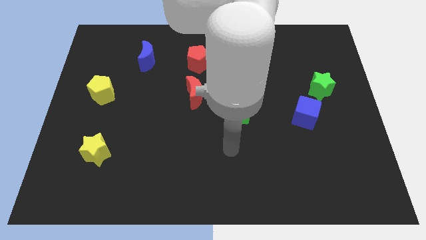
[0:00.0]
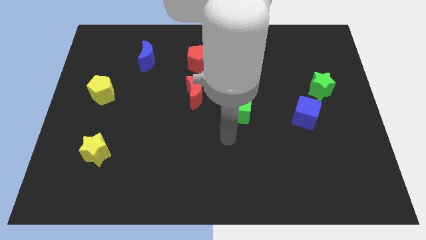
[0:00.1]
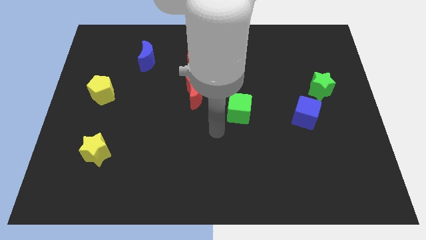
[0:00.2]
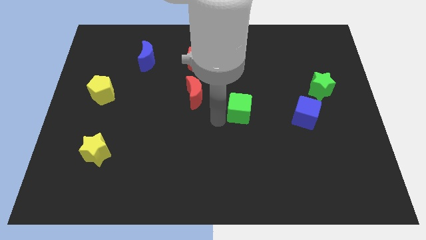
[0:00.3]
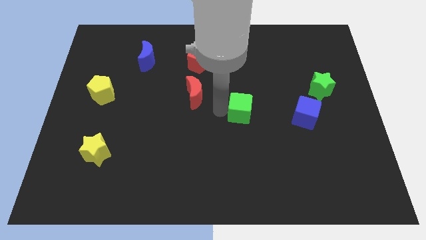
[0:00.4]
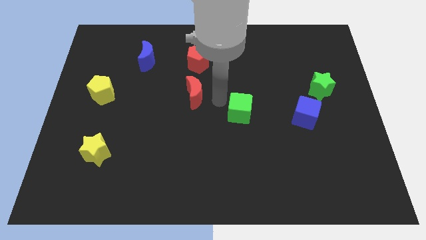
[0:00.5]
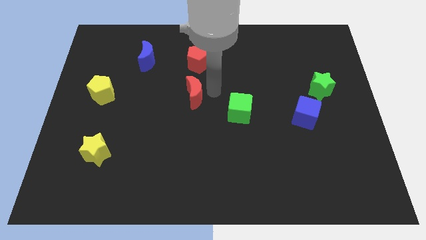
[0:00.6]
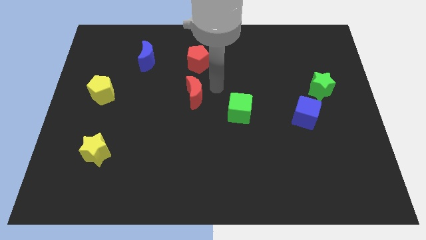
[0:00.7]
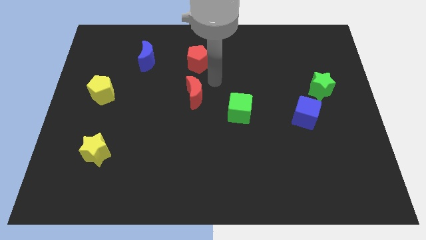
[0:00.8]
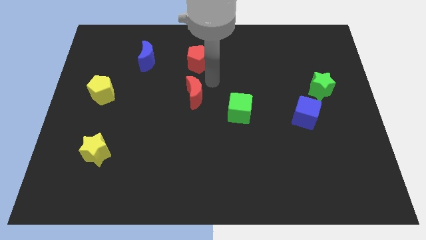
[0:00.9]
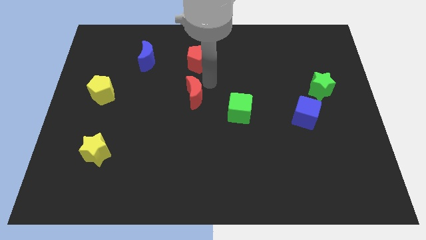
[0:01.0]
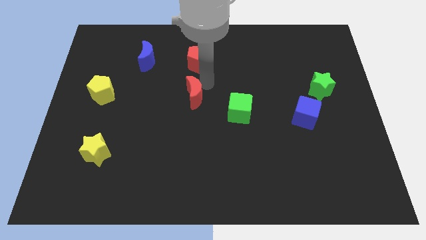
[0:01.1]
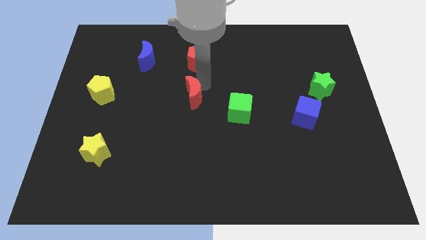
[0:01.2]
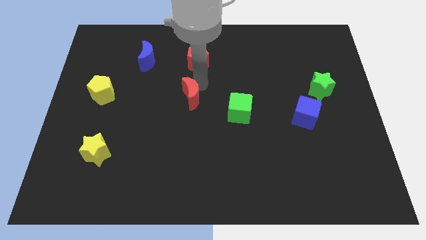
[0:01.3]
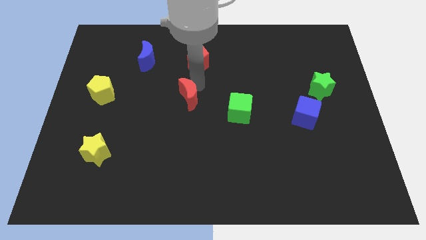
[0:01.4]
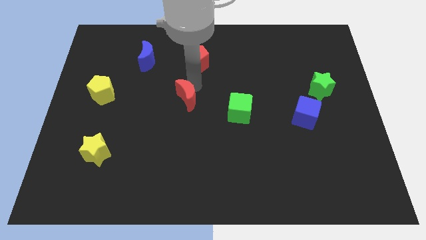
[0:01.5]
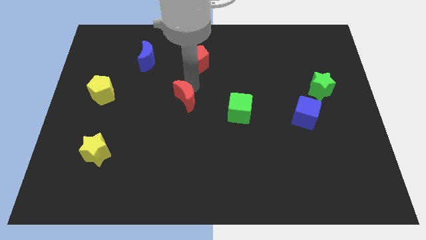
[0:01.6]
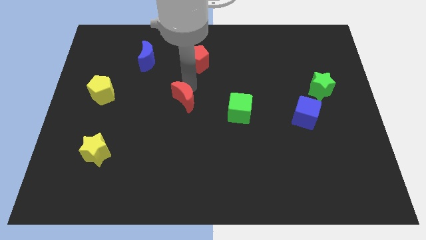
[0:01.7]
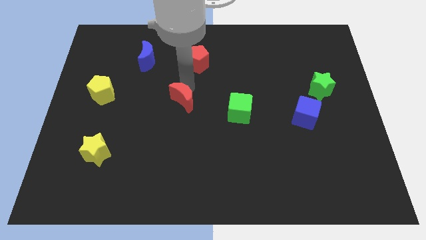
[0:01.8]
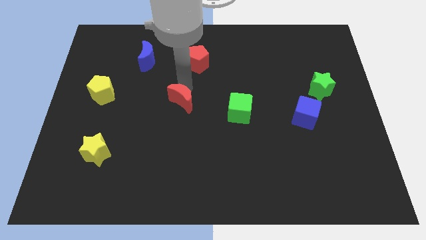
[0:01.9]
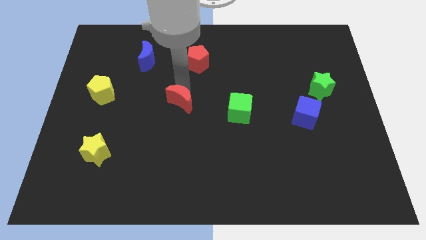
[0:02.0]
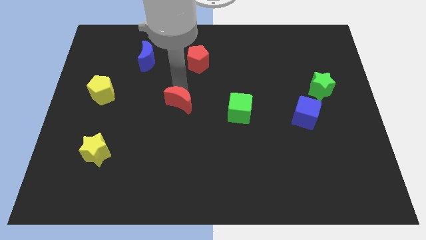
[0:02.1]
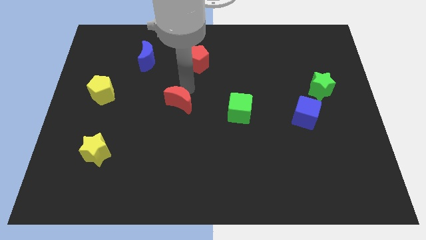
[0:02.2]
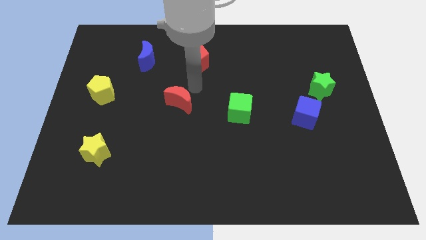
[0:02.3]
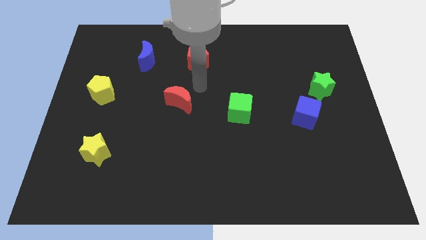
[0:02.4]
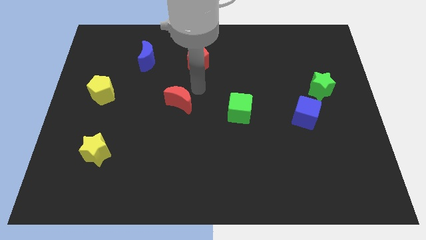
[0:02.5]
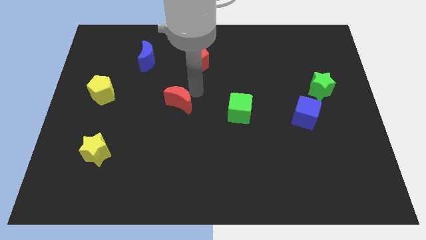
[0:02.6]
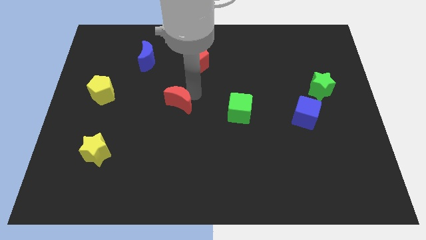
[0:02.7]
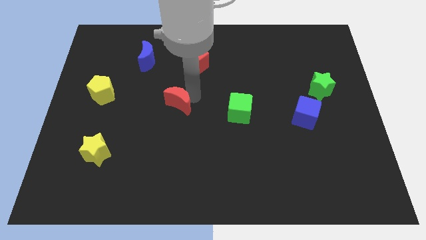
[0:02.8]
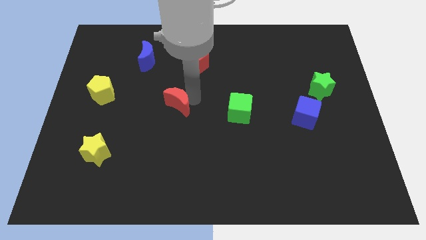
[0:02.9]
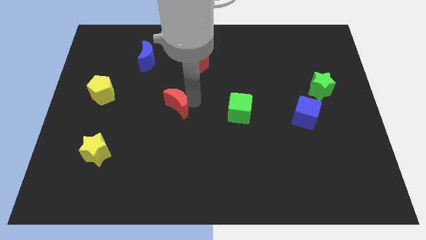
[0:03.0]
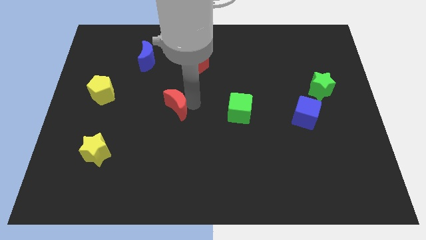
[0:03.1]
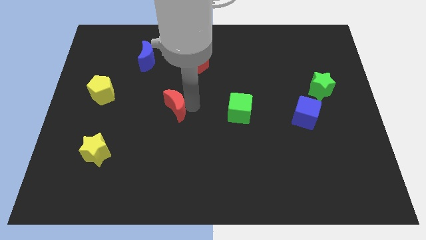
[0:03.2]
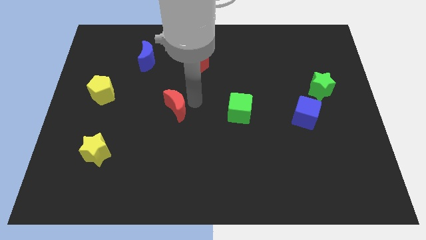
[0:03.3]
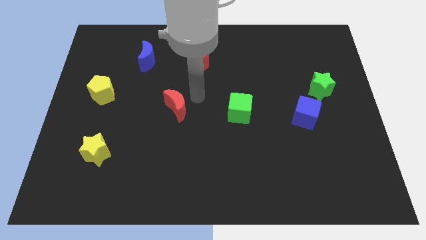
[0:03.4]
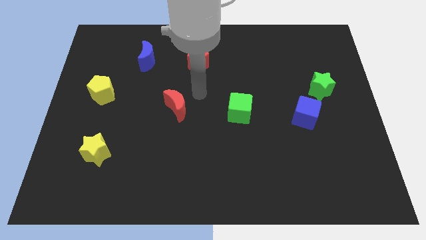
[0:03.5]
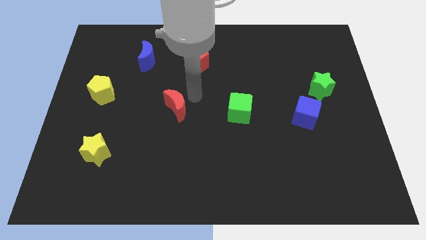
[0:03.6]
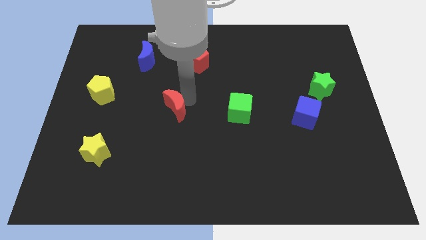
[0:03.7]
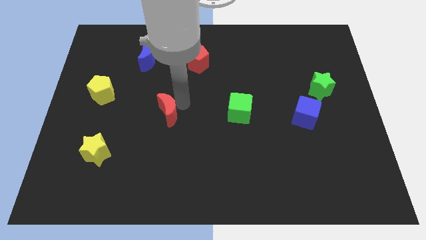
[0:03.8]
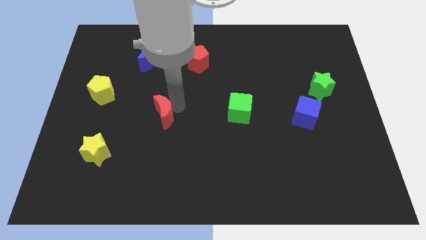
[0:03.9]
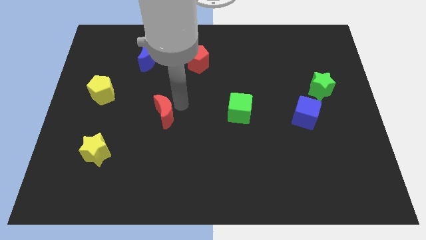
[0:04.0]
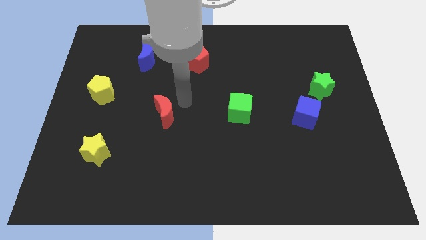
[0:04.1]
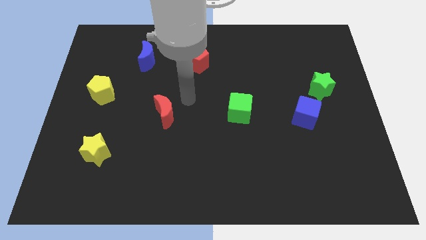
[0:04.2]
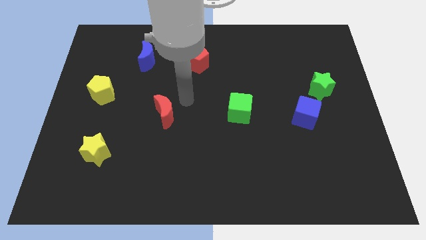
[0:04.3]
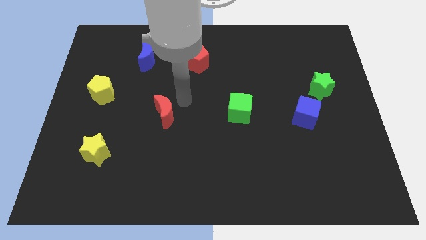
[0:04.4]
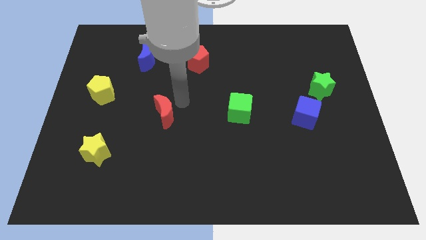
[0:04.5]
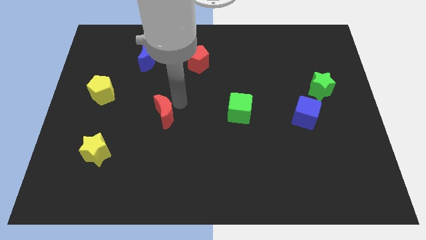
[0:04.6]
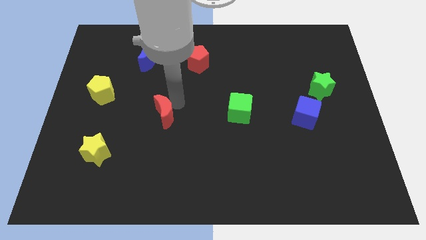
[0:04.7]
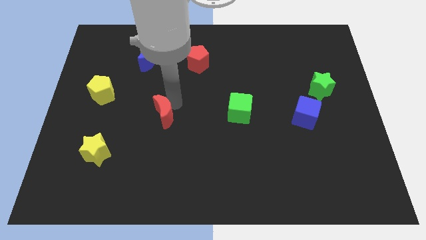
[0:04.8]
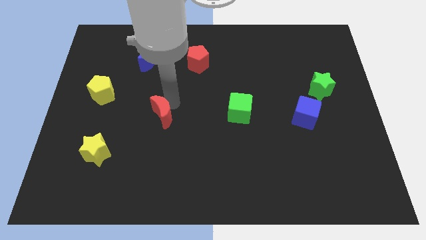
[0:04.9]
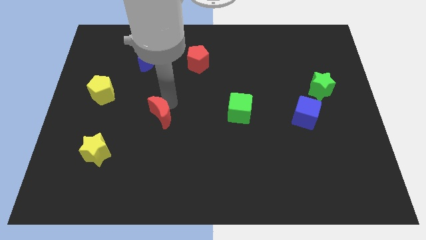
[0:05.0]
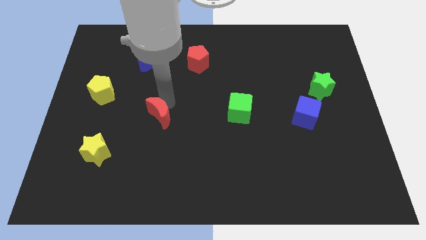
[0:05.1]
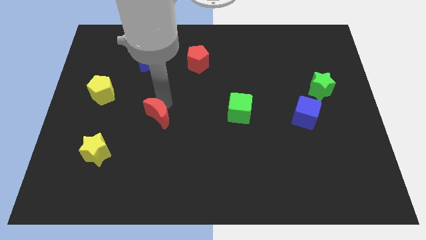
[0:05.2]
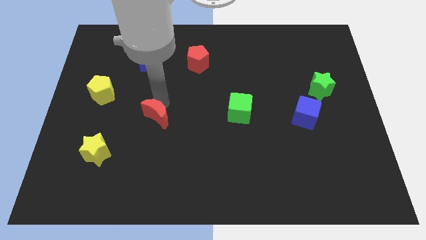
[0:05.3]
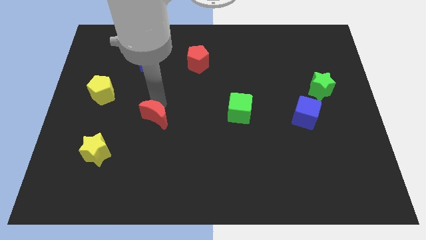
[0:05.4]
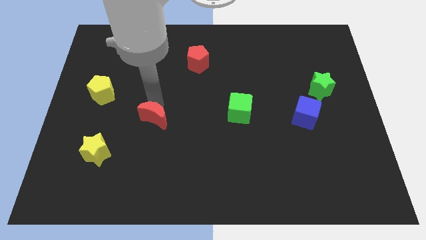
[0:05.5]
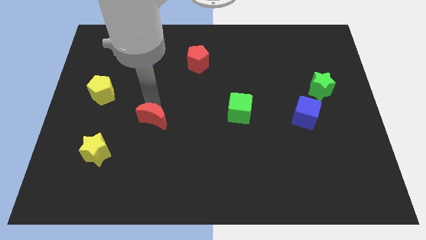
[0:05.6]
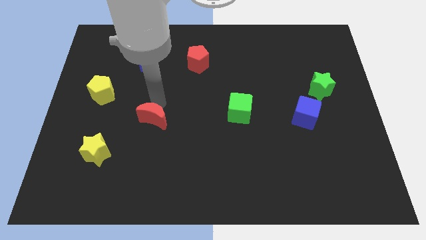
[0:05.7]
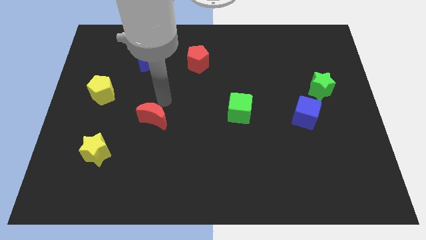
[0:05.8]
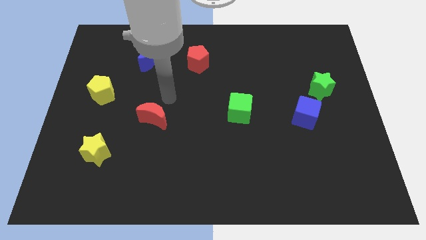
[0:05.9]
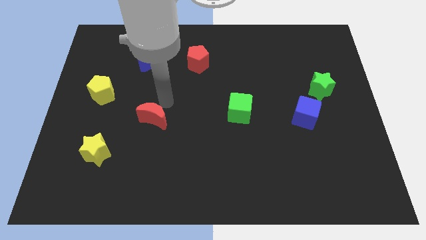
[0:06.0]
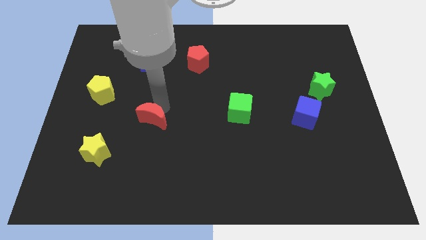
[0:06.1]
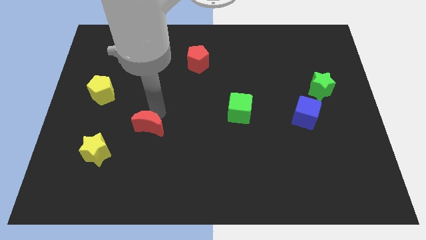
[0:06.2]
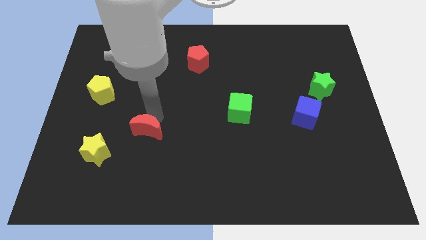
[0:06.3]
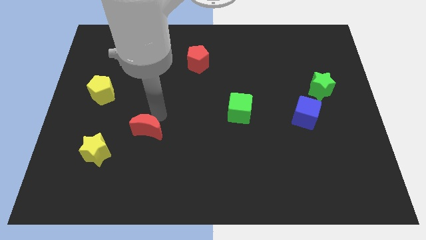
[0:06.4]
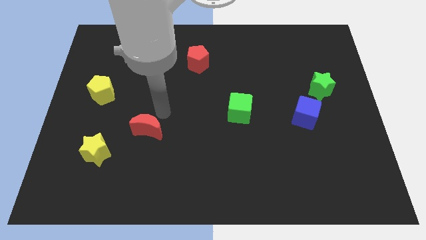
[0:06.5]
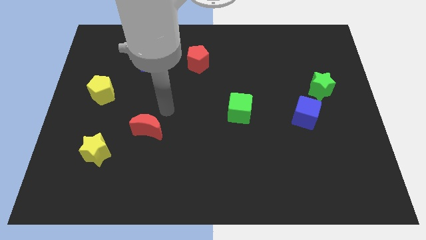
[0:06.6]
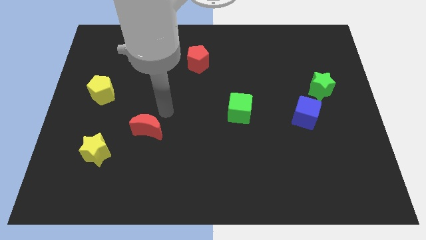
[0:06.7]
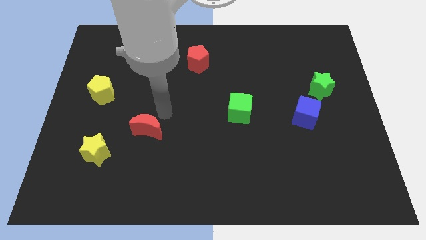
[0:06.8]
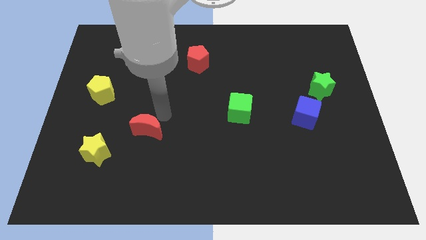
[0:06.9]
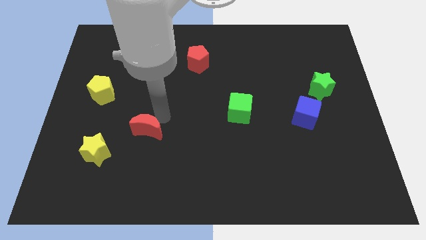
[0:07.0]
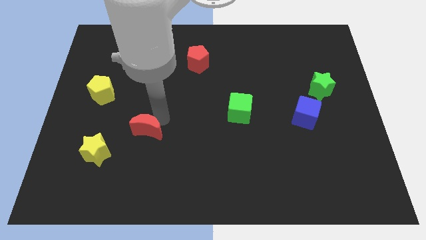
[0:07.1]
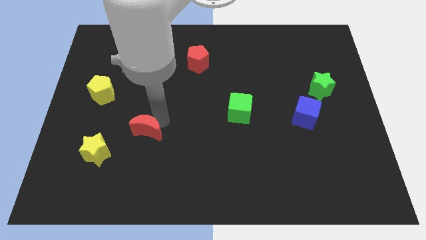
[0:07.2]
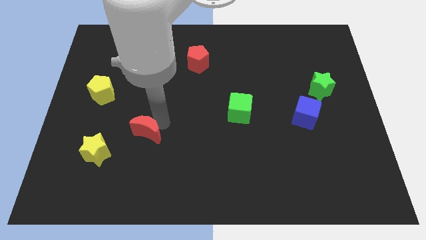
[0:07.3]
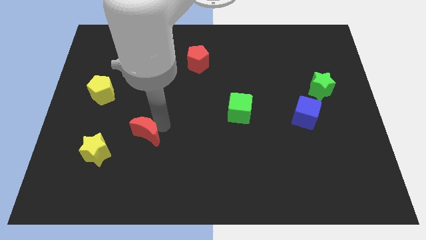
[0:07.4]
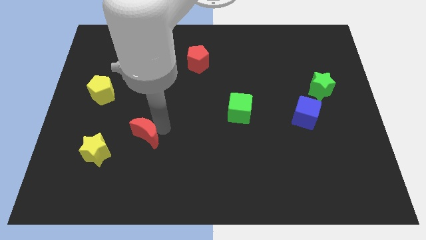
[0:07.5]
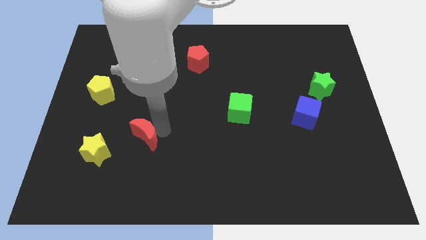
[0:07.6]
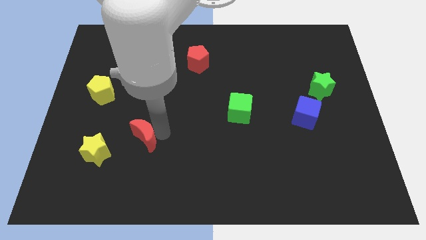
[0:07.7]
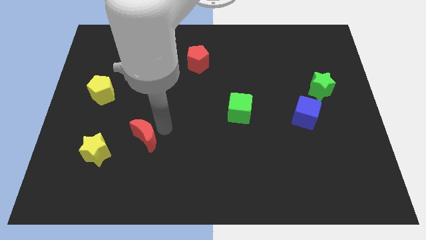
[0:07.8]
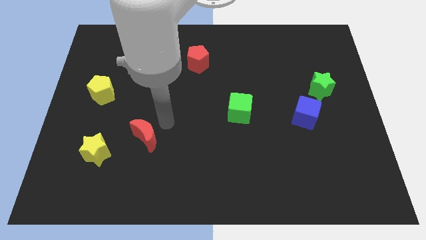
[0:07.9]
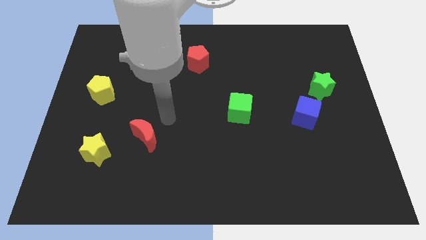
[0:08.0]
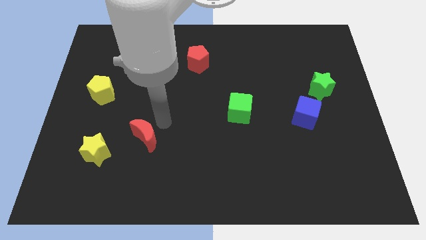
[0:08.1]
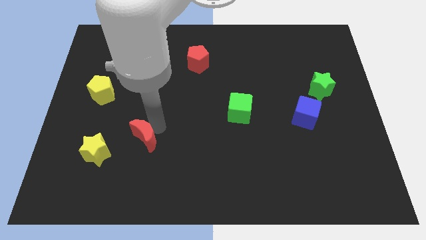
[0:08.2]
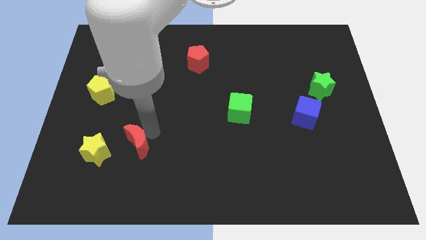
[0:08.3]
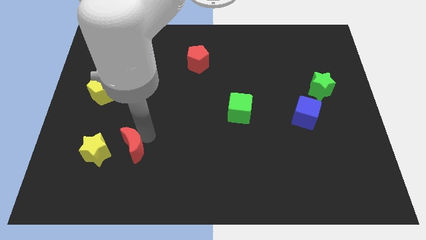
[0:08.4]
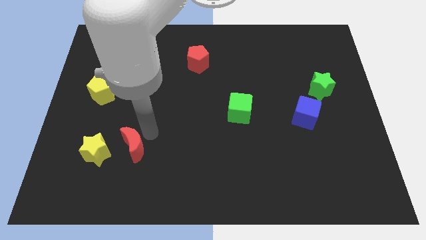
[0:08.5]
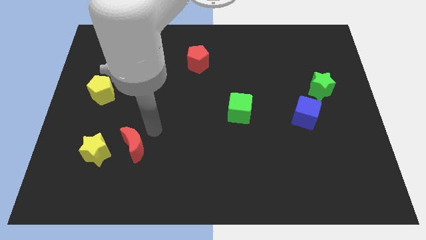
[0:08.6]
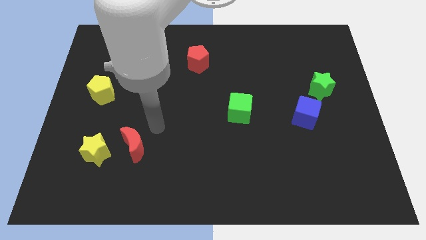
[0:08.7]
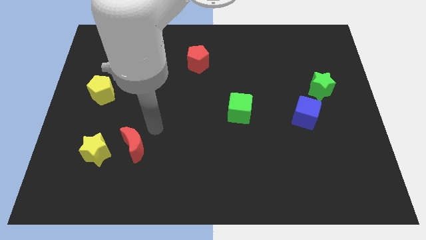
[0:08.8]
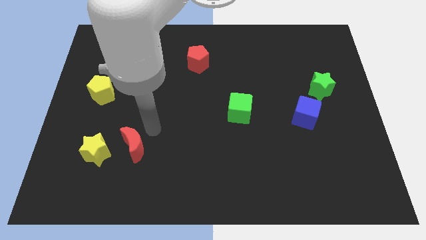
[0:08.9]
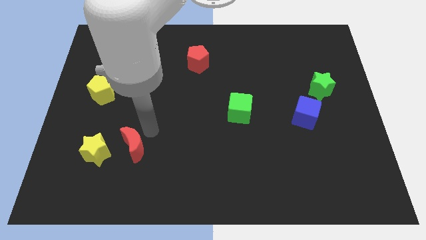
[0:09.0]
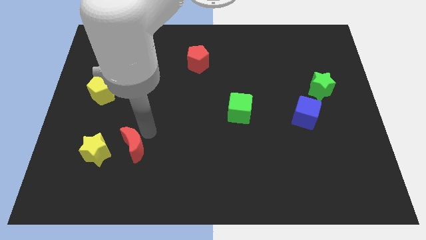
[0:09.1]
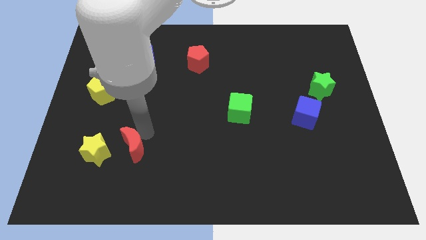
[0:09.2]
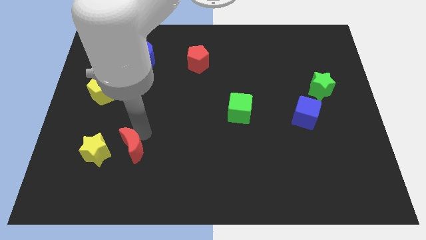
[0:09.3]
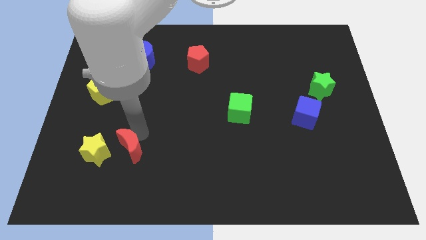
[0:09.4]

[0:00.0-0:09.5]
move the red moon down and left
